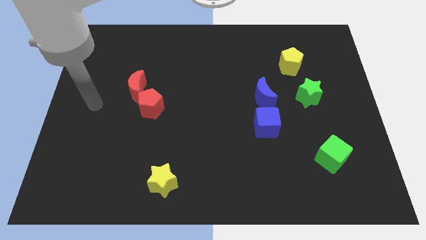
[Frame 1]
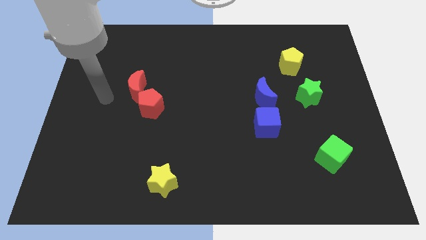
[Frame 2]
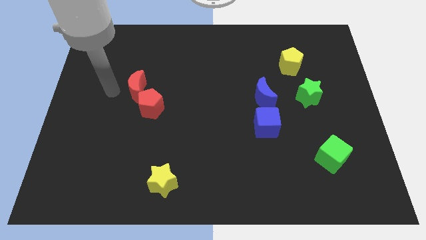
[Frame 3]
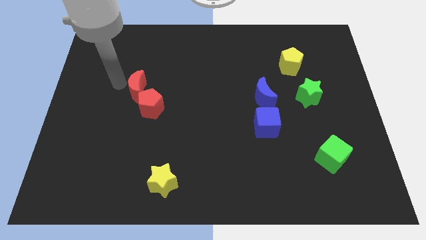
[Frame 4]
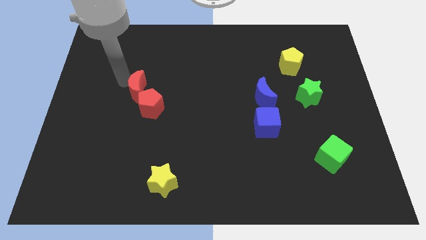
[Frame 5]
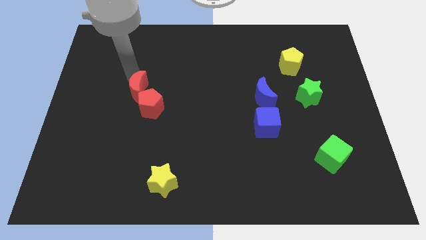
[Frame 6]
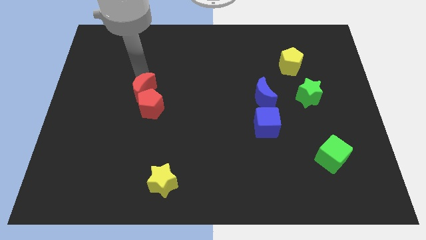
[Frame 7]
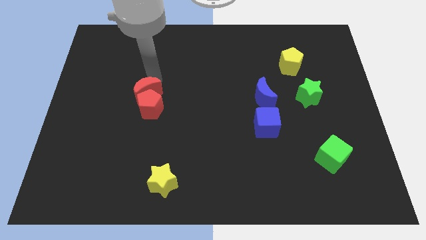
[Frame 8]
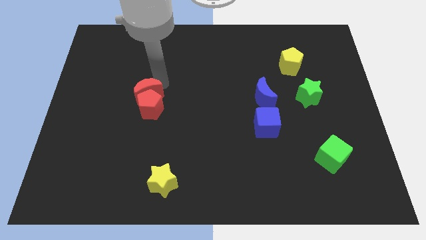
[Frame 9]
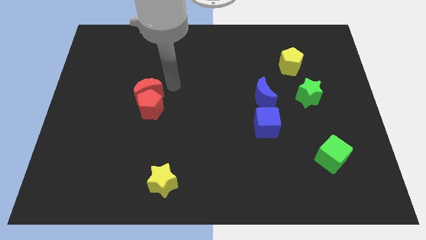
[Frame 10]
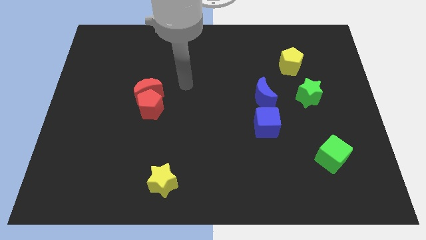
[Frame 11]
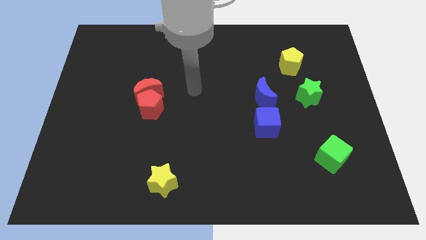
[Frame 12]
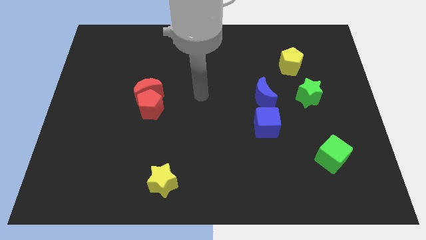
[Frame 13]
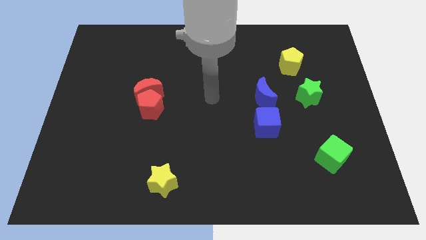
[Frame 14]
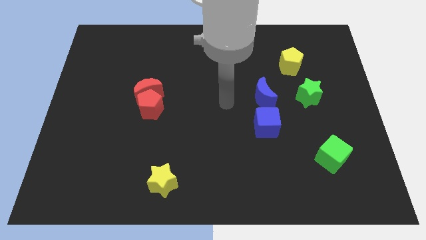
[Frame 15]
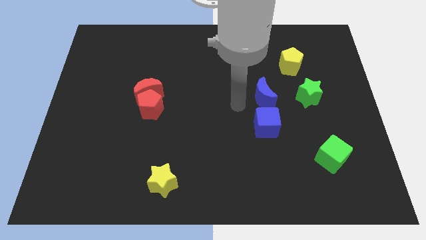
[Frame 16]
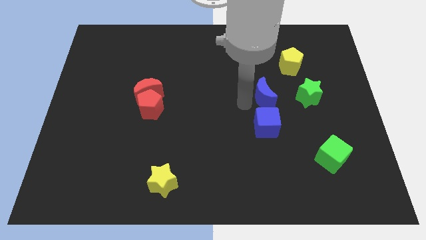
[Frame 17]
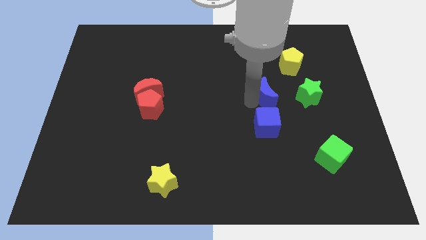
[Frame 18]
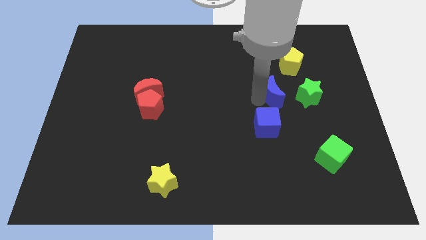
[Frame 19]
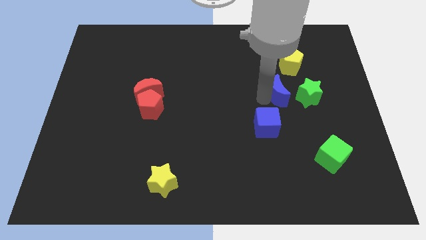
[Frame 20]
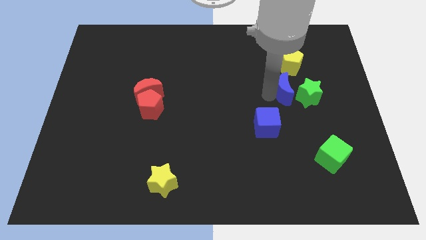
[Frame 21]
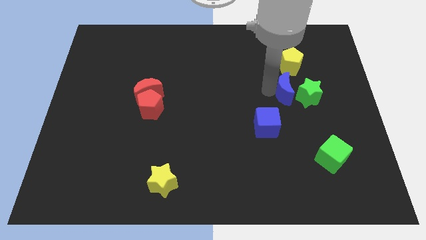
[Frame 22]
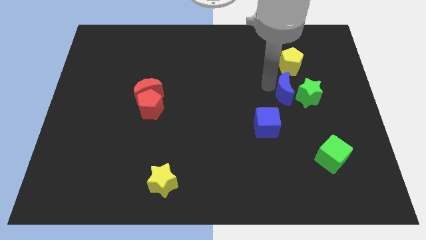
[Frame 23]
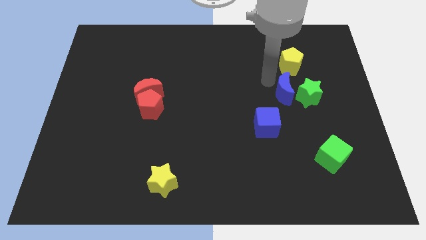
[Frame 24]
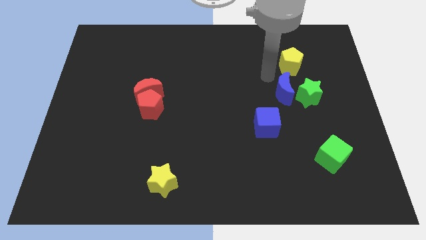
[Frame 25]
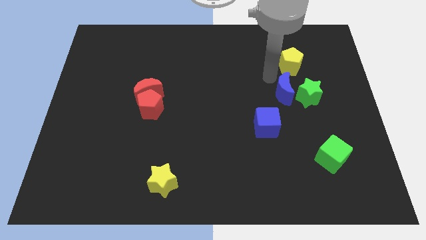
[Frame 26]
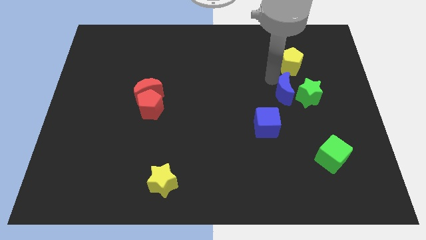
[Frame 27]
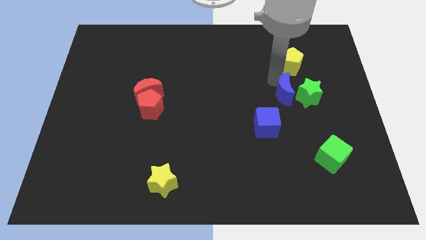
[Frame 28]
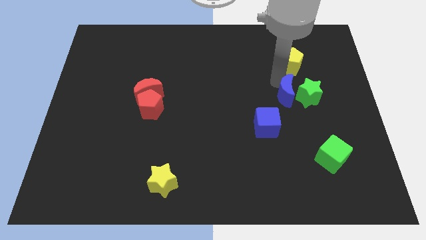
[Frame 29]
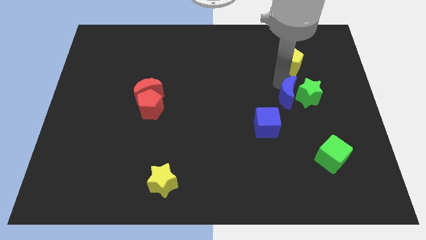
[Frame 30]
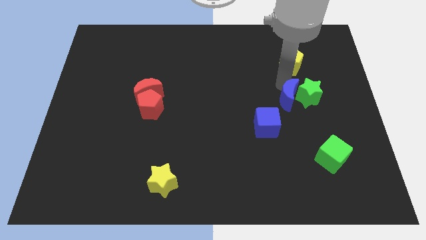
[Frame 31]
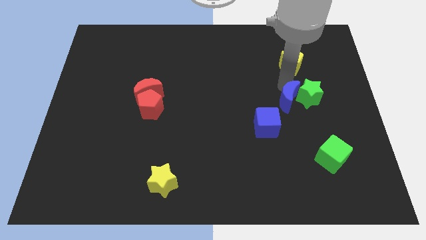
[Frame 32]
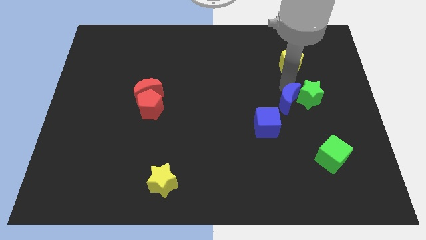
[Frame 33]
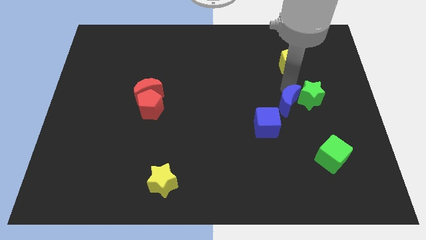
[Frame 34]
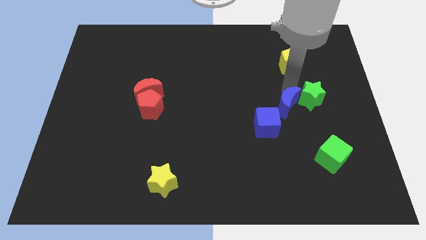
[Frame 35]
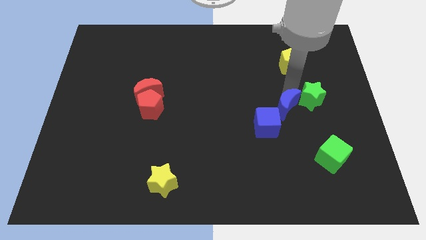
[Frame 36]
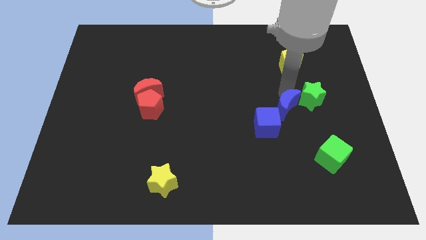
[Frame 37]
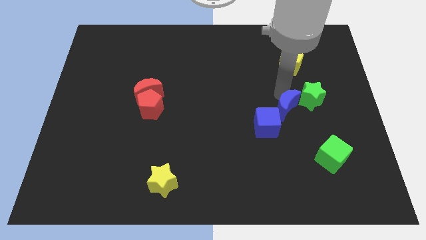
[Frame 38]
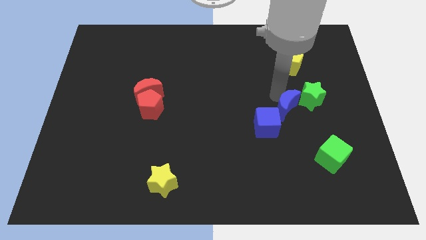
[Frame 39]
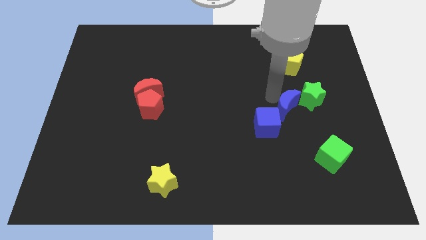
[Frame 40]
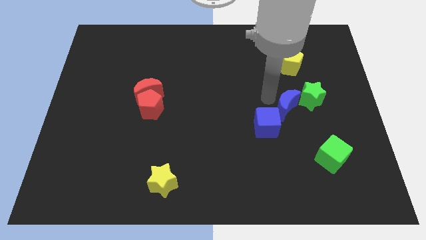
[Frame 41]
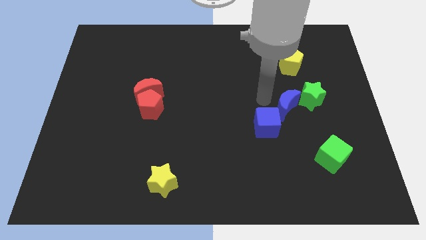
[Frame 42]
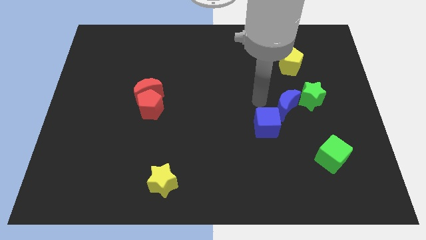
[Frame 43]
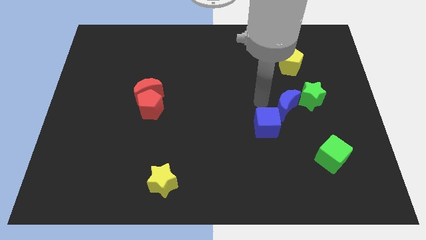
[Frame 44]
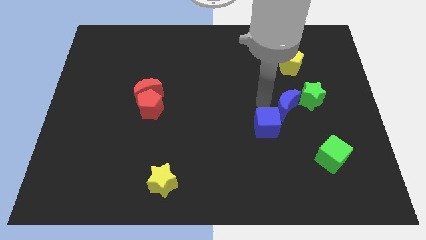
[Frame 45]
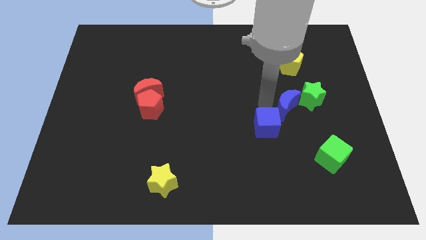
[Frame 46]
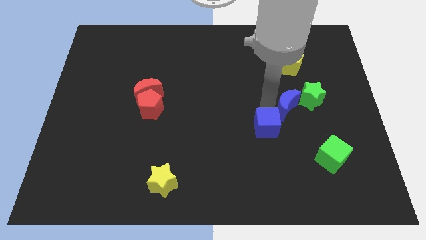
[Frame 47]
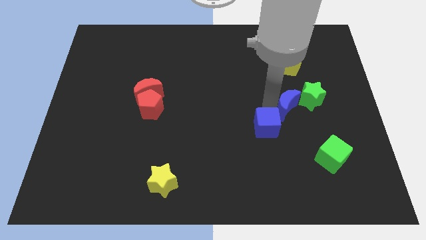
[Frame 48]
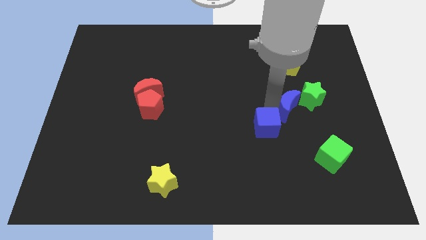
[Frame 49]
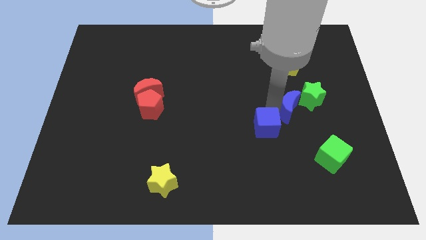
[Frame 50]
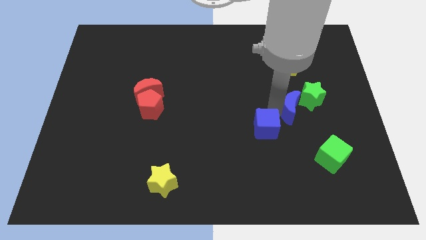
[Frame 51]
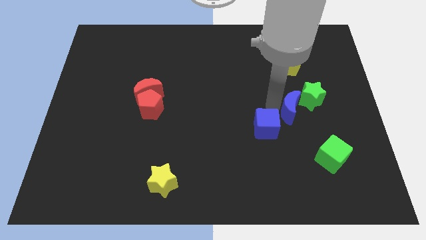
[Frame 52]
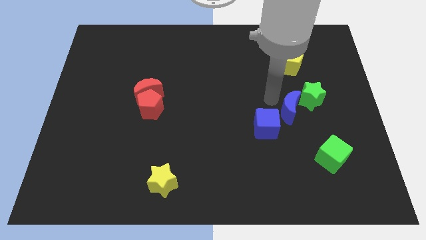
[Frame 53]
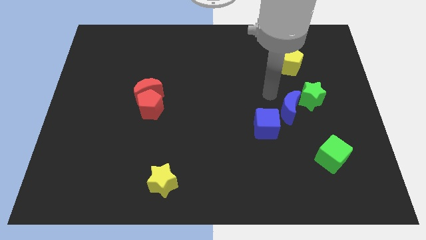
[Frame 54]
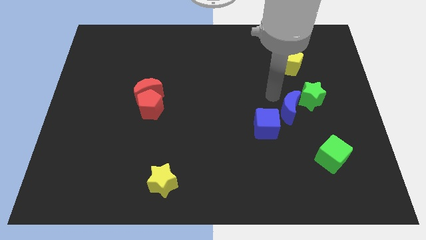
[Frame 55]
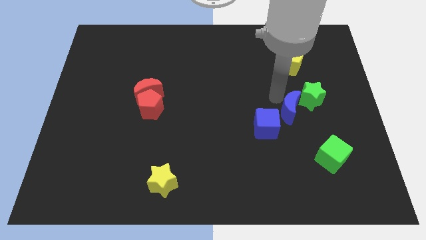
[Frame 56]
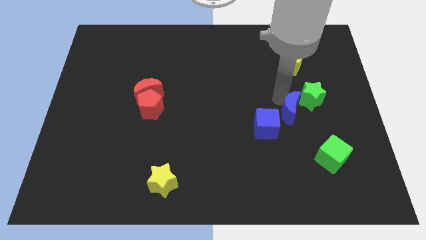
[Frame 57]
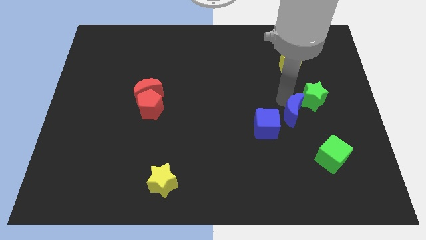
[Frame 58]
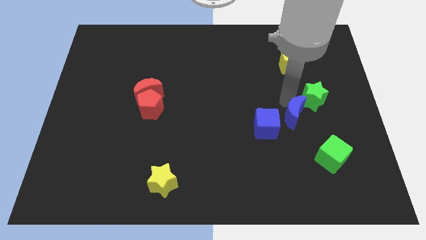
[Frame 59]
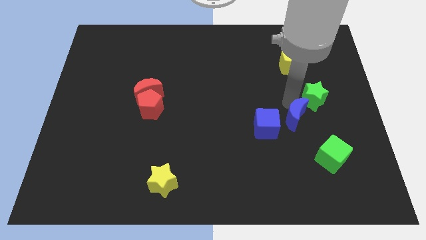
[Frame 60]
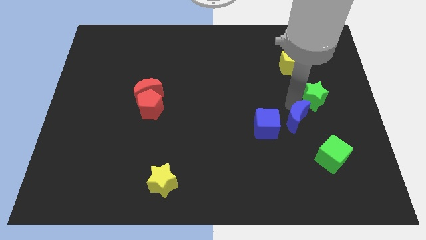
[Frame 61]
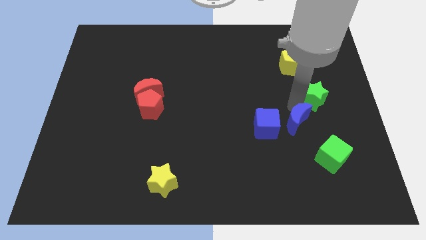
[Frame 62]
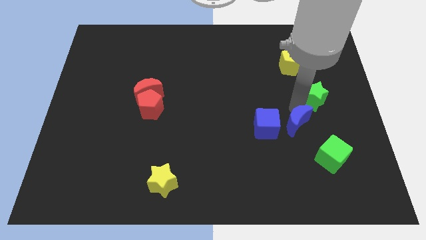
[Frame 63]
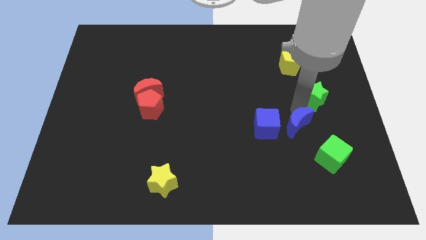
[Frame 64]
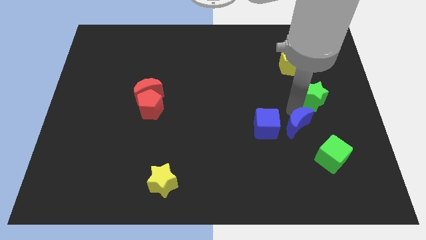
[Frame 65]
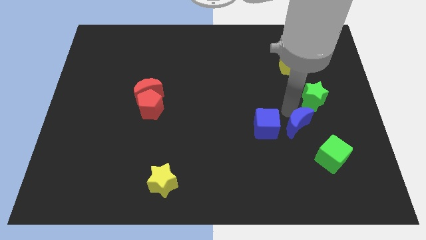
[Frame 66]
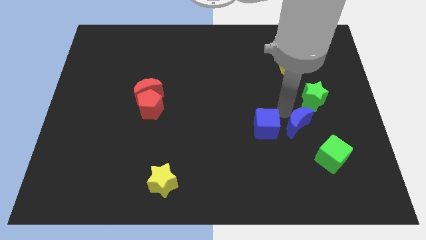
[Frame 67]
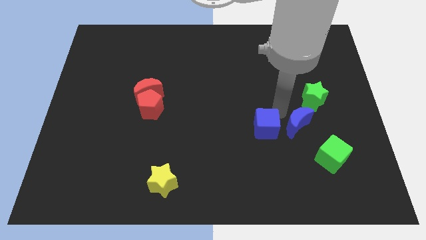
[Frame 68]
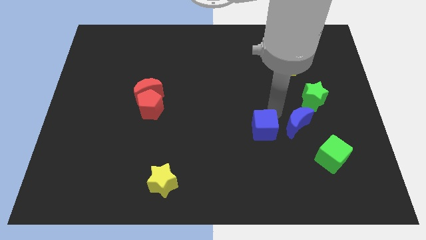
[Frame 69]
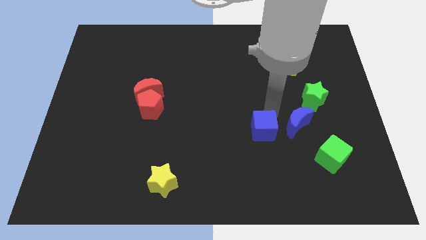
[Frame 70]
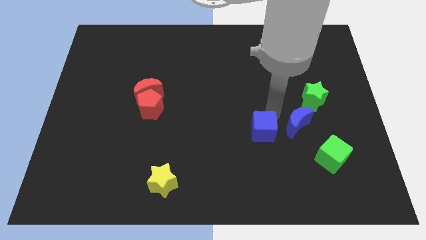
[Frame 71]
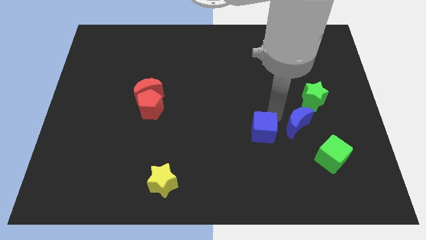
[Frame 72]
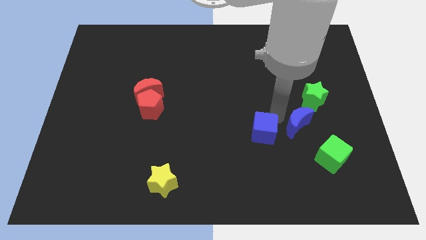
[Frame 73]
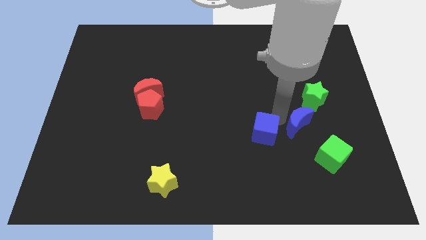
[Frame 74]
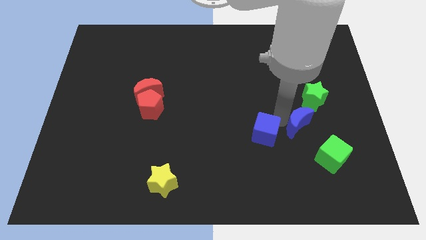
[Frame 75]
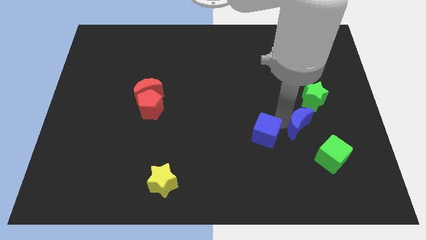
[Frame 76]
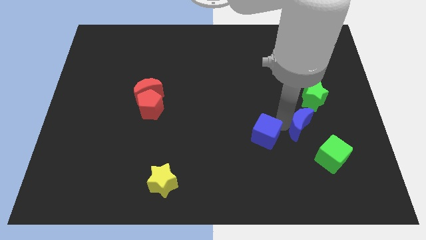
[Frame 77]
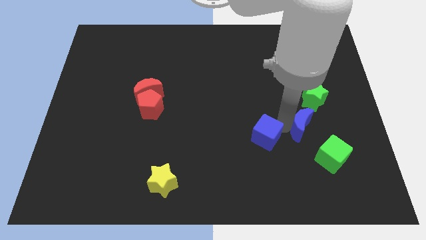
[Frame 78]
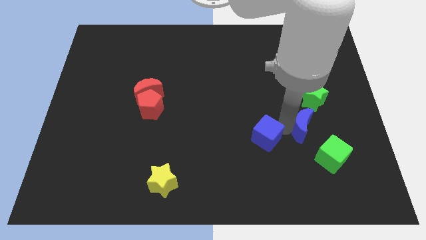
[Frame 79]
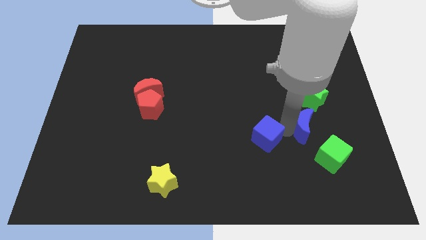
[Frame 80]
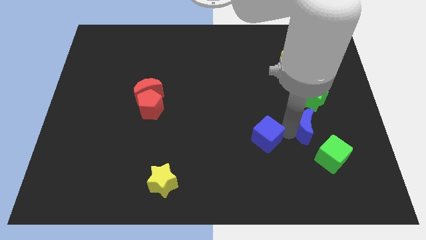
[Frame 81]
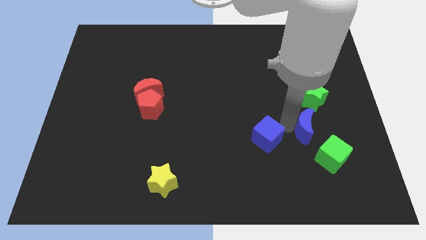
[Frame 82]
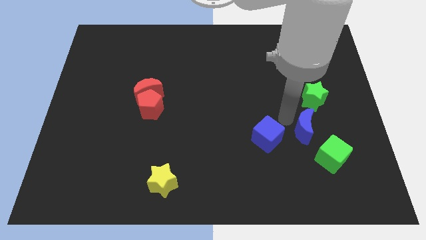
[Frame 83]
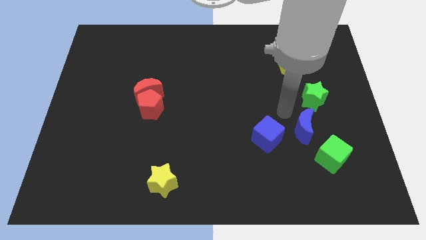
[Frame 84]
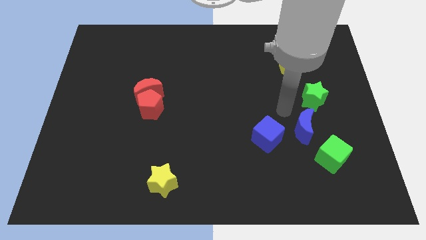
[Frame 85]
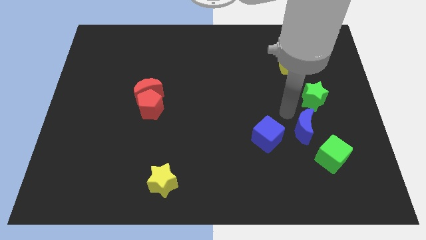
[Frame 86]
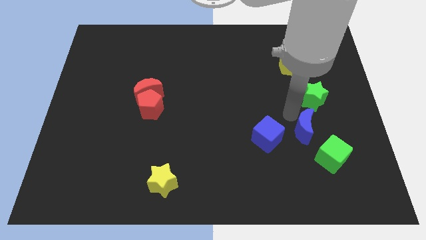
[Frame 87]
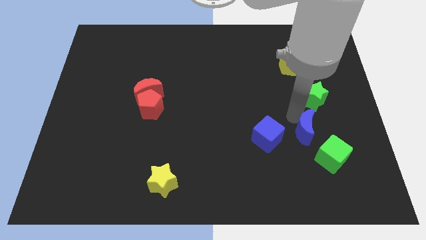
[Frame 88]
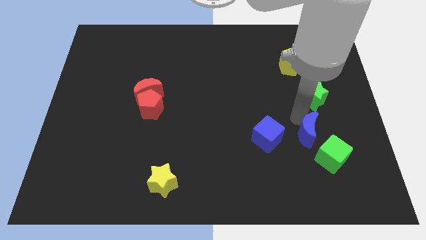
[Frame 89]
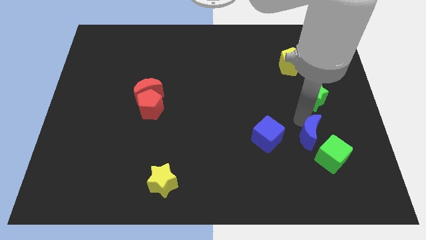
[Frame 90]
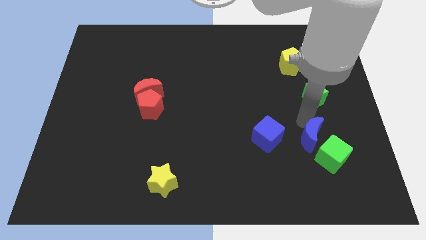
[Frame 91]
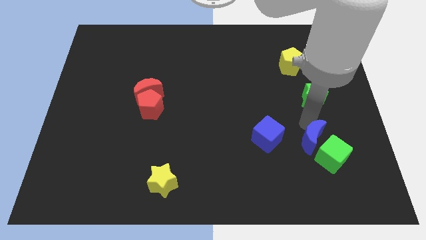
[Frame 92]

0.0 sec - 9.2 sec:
push the blue moon to the green cube
